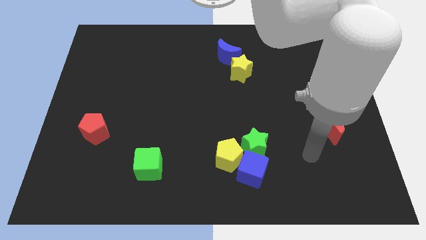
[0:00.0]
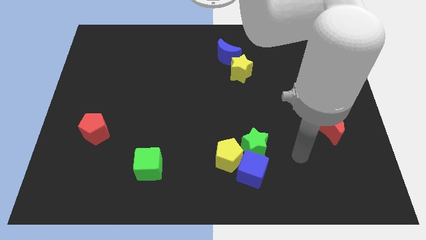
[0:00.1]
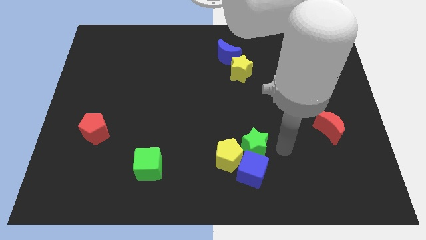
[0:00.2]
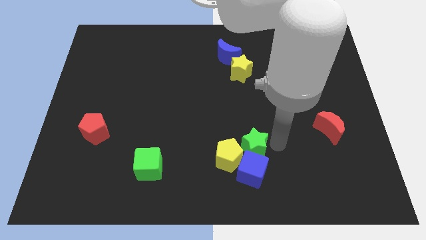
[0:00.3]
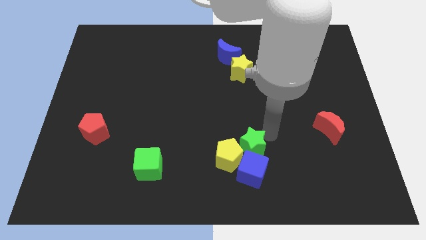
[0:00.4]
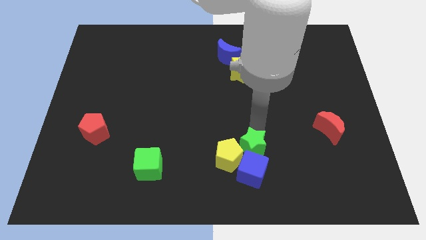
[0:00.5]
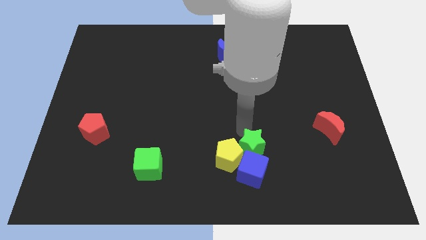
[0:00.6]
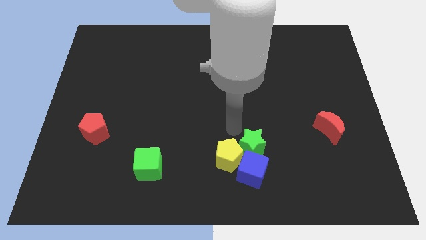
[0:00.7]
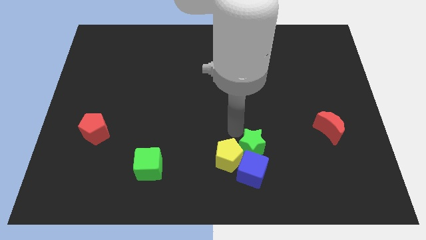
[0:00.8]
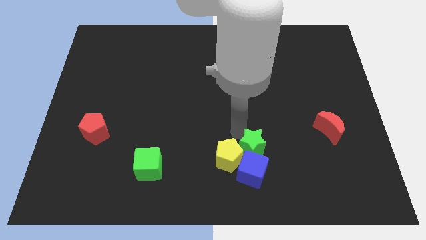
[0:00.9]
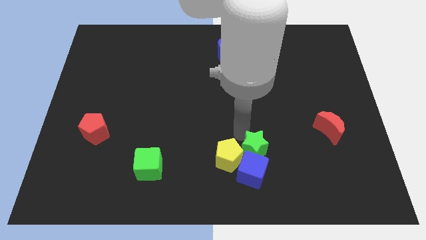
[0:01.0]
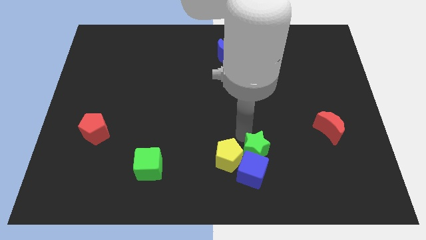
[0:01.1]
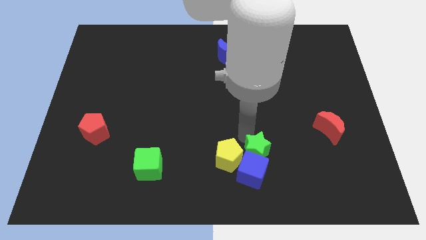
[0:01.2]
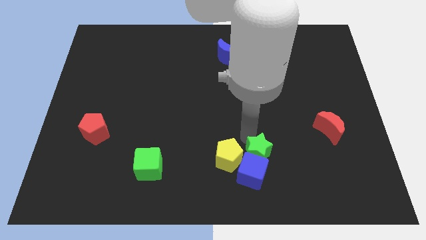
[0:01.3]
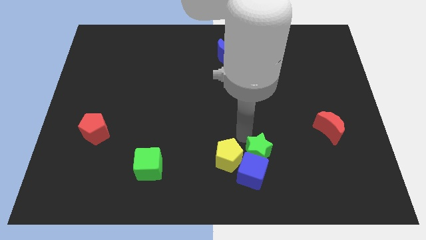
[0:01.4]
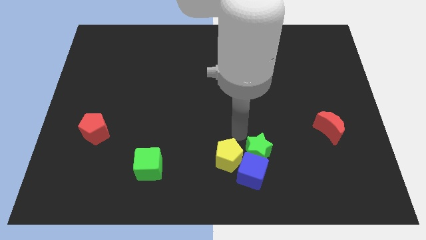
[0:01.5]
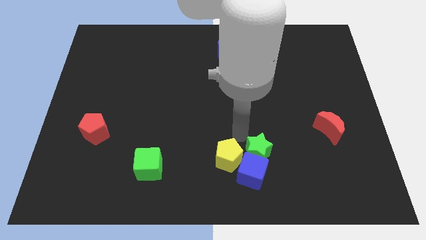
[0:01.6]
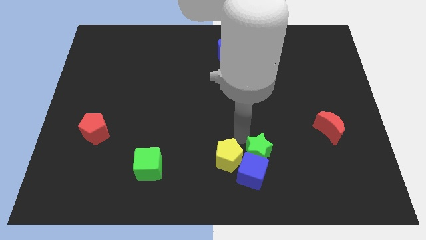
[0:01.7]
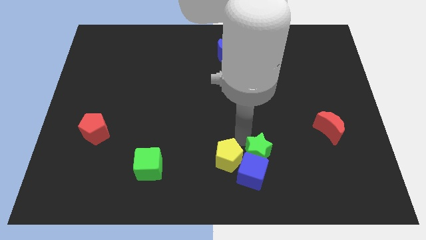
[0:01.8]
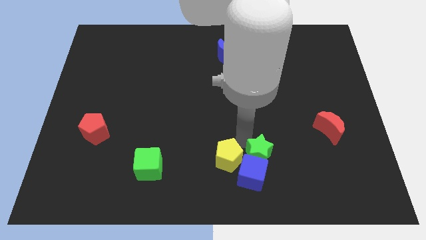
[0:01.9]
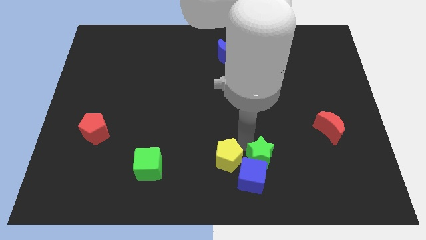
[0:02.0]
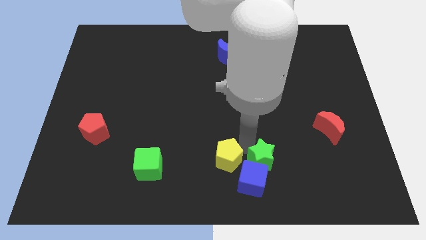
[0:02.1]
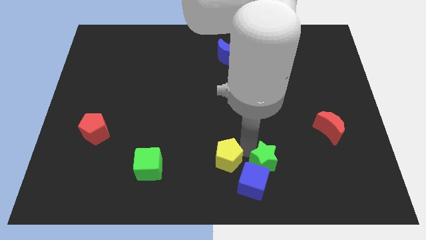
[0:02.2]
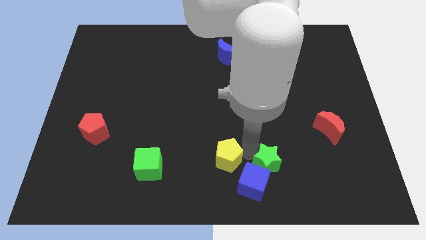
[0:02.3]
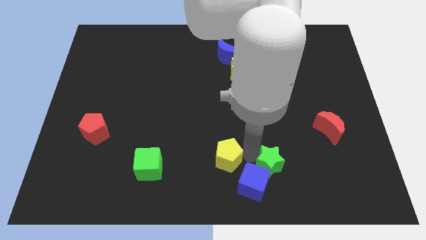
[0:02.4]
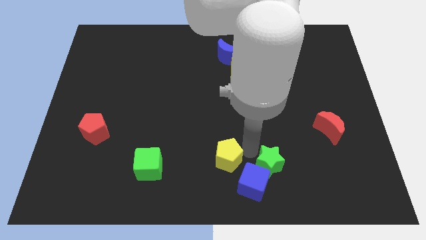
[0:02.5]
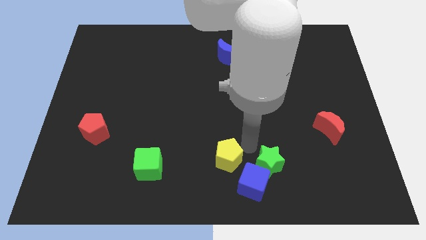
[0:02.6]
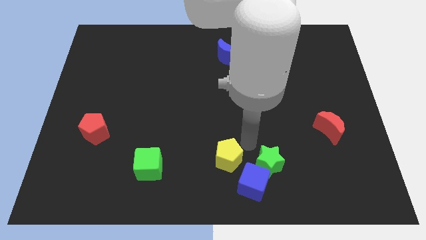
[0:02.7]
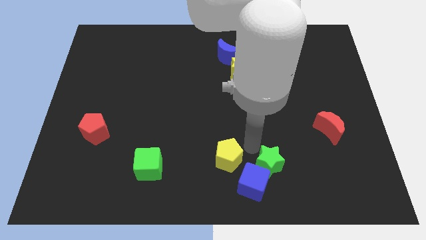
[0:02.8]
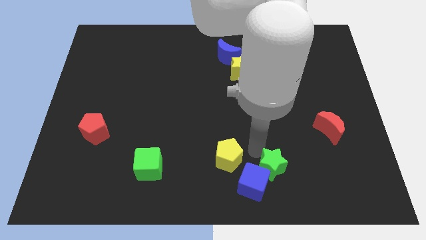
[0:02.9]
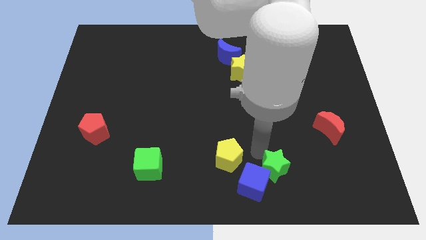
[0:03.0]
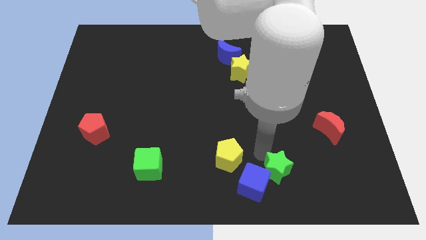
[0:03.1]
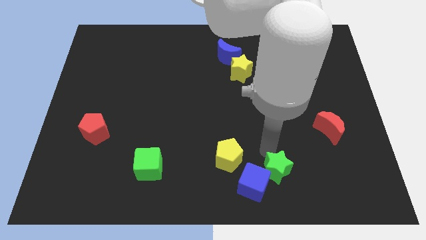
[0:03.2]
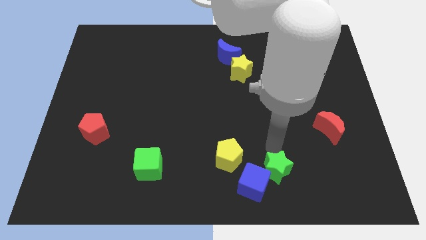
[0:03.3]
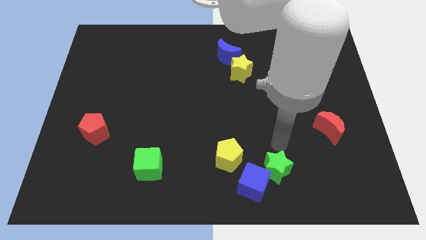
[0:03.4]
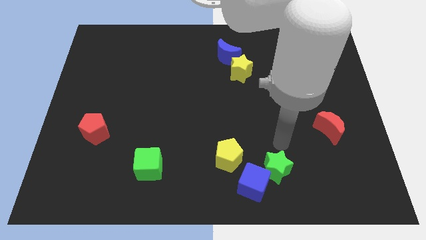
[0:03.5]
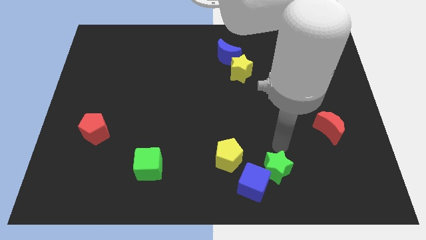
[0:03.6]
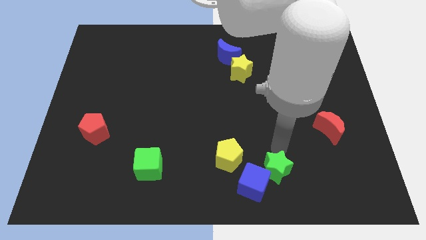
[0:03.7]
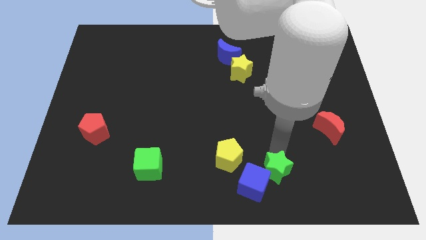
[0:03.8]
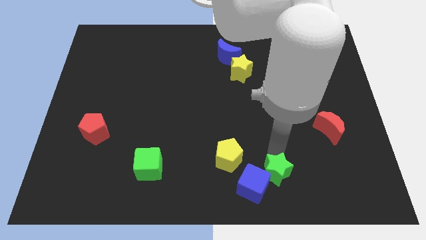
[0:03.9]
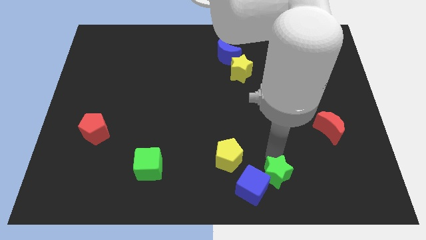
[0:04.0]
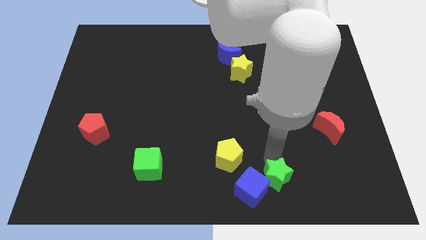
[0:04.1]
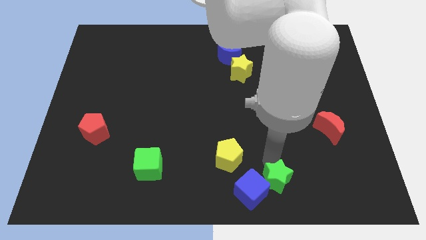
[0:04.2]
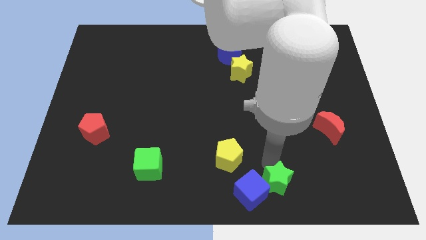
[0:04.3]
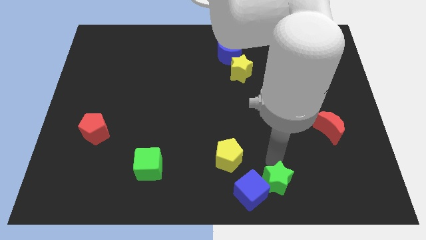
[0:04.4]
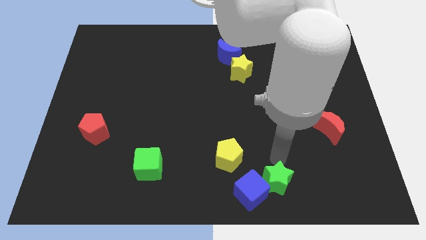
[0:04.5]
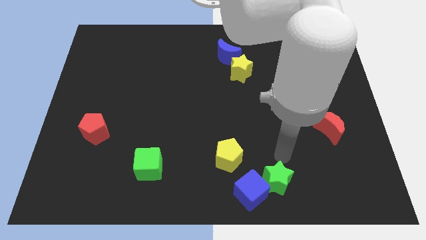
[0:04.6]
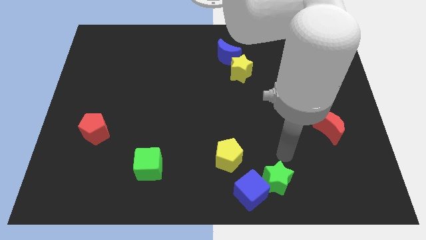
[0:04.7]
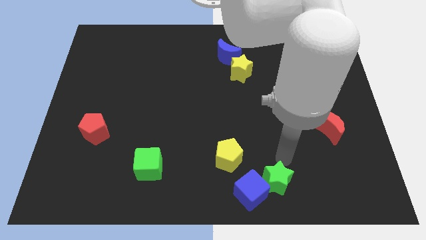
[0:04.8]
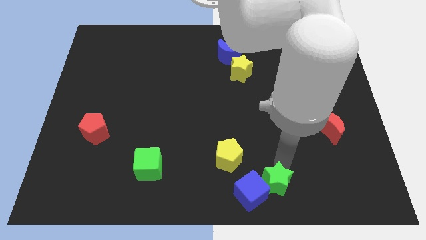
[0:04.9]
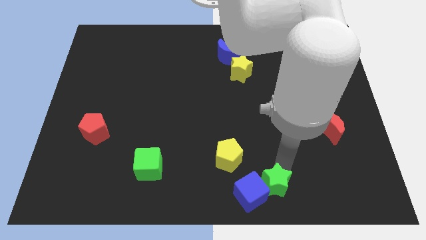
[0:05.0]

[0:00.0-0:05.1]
put the green star to the bottom side

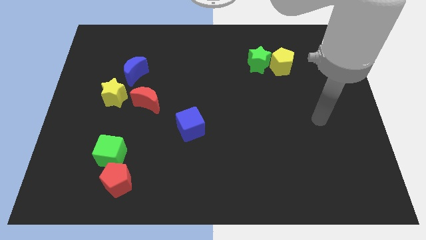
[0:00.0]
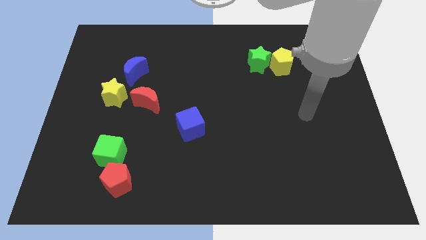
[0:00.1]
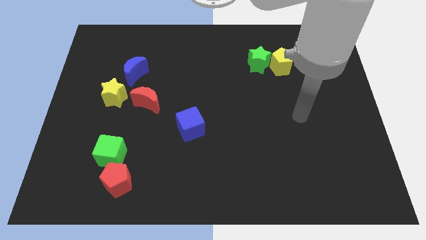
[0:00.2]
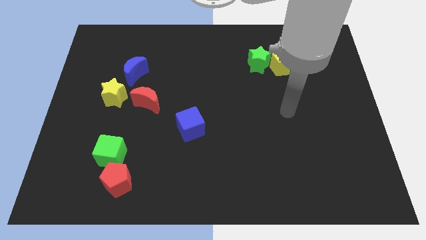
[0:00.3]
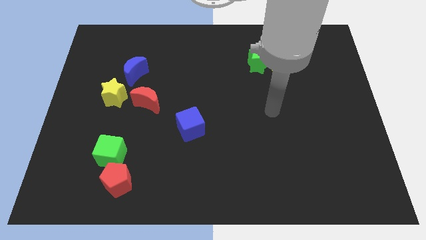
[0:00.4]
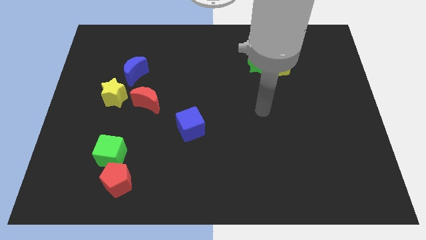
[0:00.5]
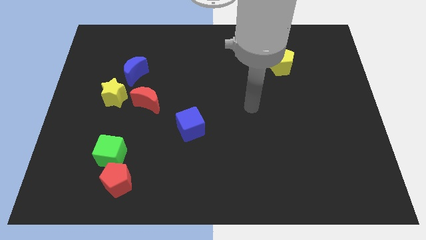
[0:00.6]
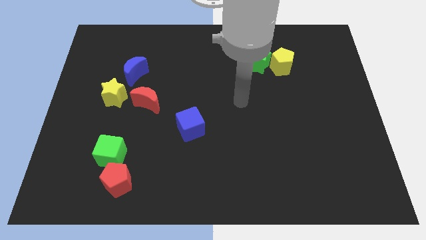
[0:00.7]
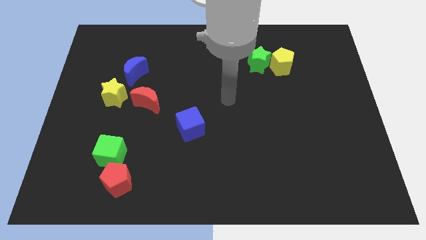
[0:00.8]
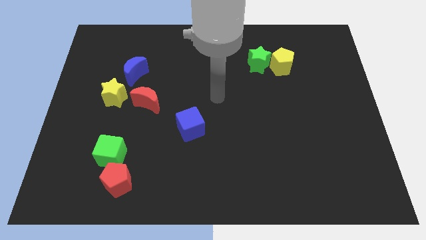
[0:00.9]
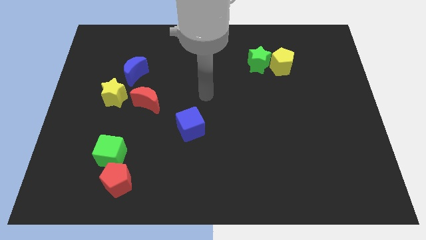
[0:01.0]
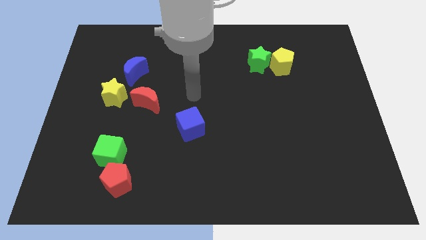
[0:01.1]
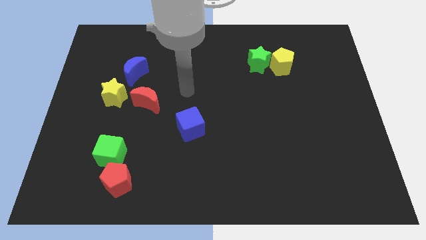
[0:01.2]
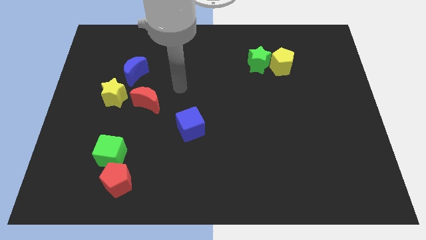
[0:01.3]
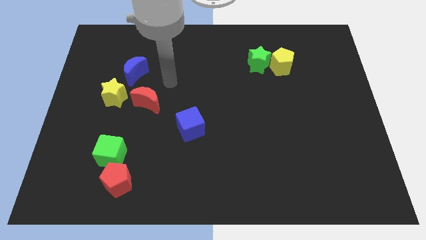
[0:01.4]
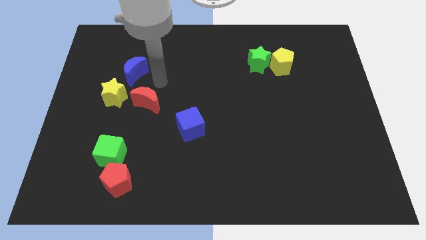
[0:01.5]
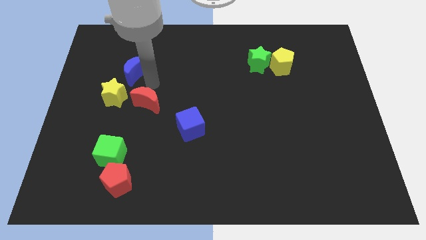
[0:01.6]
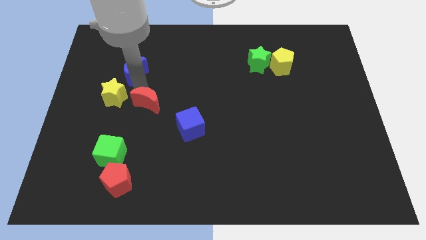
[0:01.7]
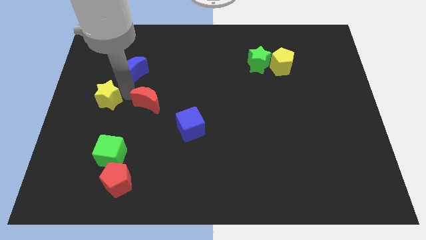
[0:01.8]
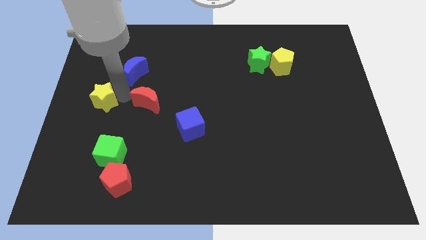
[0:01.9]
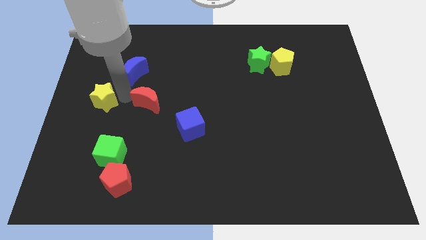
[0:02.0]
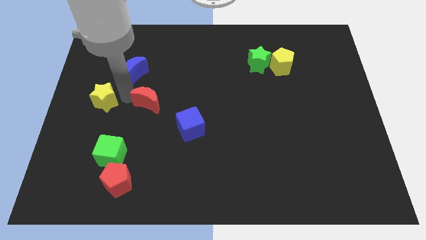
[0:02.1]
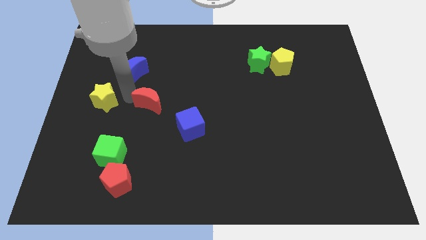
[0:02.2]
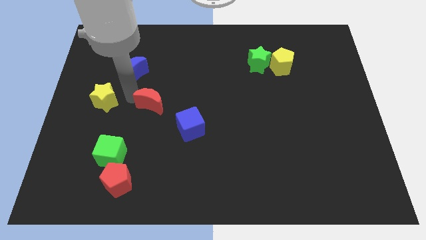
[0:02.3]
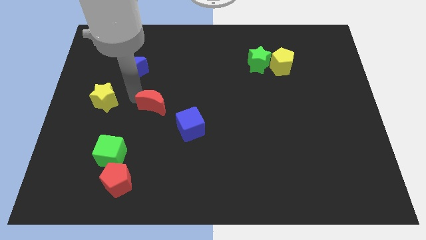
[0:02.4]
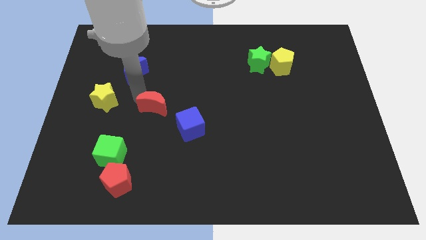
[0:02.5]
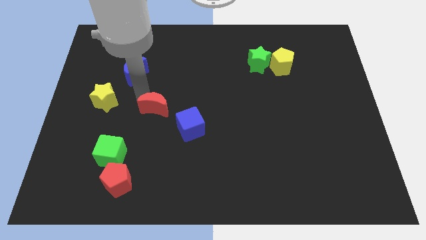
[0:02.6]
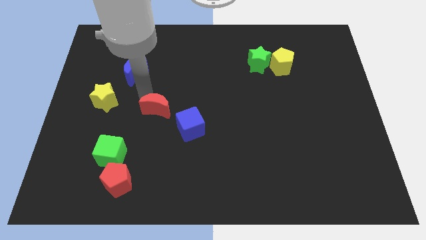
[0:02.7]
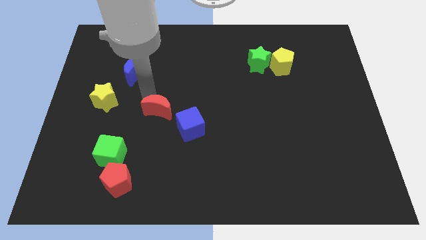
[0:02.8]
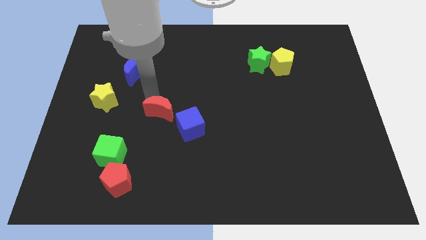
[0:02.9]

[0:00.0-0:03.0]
put the red moon to the middle
